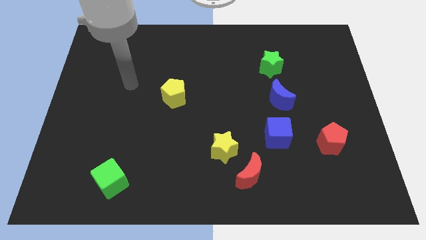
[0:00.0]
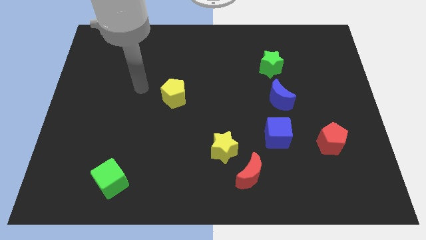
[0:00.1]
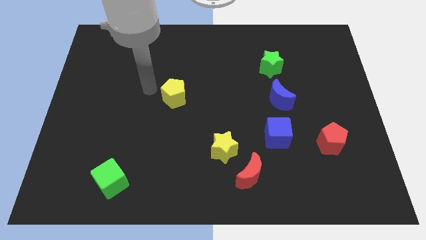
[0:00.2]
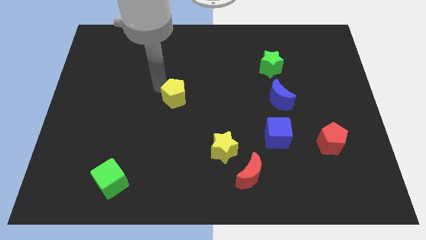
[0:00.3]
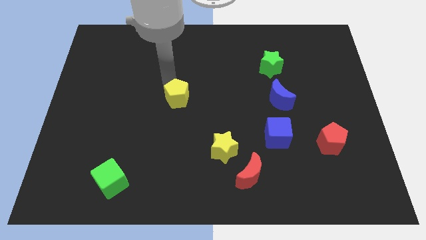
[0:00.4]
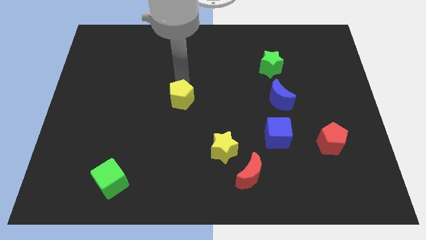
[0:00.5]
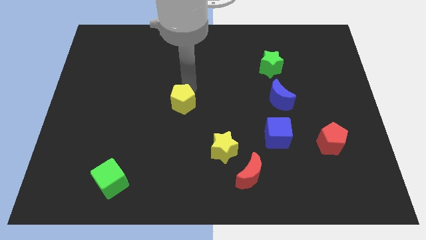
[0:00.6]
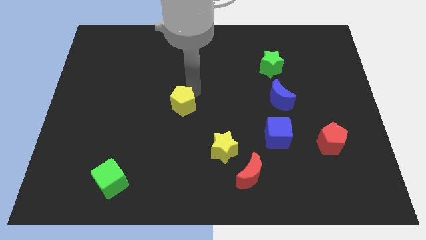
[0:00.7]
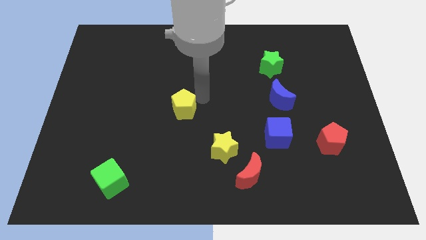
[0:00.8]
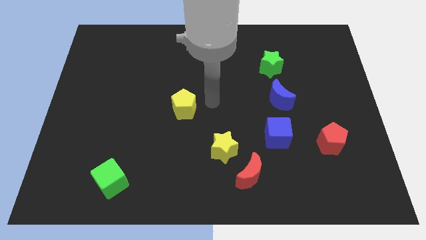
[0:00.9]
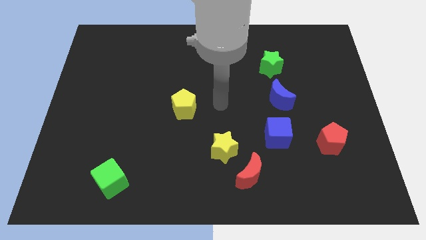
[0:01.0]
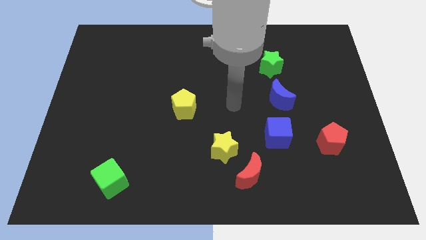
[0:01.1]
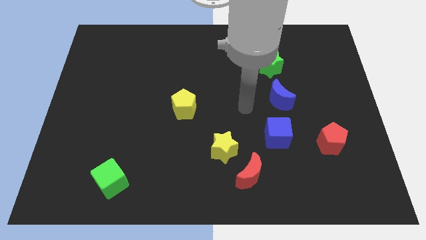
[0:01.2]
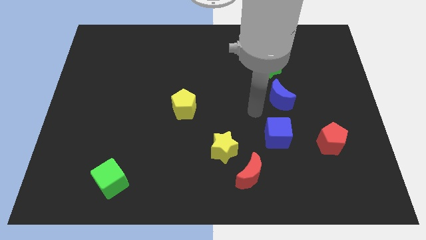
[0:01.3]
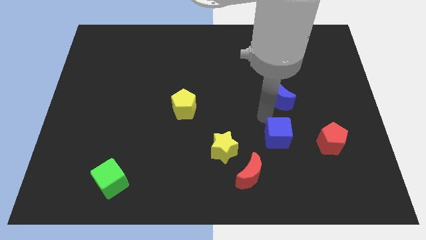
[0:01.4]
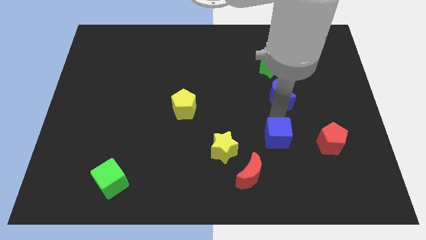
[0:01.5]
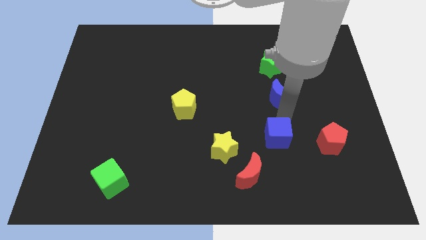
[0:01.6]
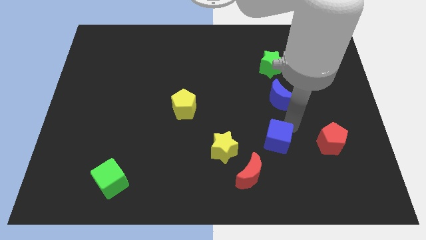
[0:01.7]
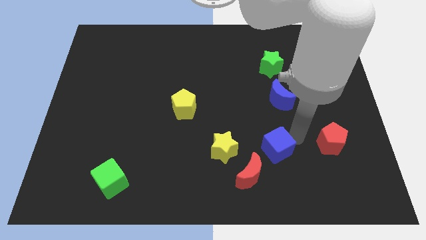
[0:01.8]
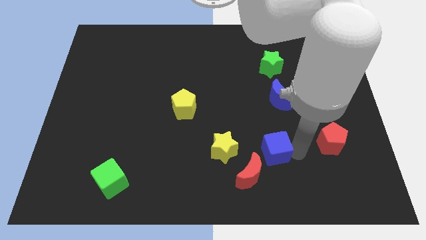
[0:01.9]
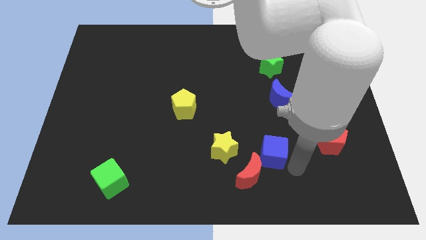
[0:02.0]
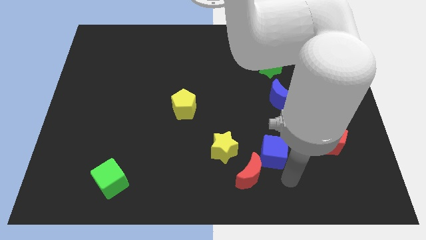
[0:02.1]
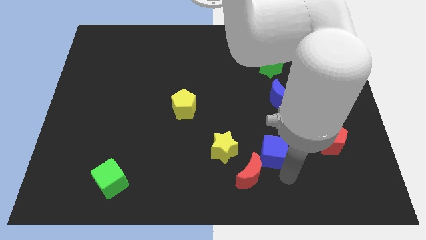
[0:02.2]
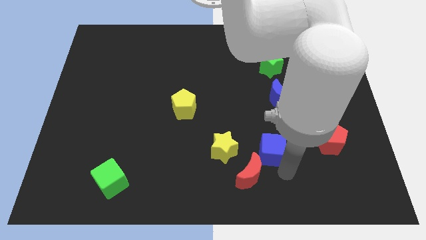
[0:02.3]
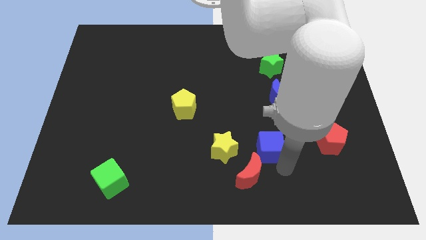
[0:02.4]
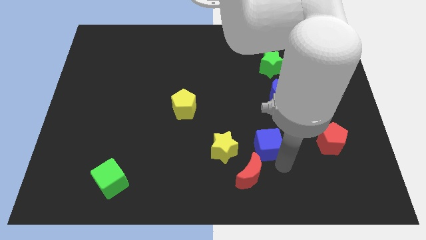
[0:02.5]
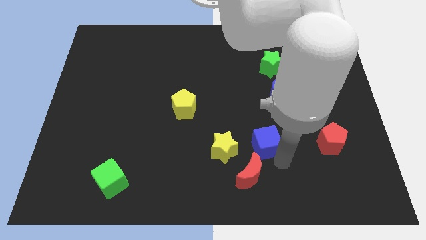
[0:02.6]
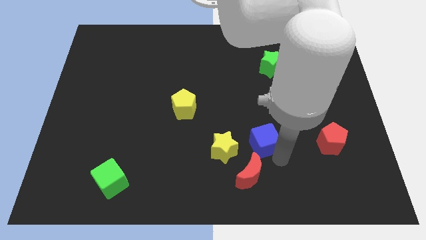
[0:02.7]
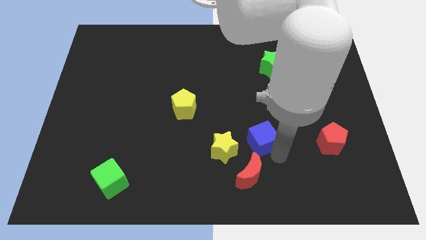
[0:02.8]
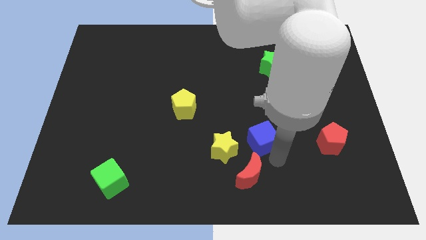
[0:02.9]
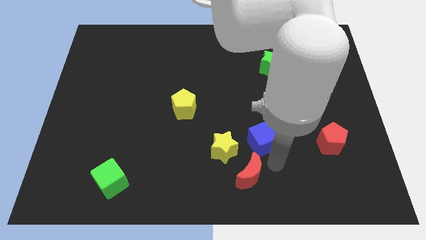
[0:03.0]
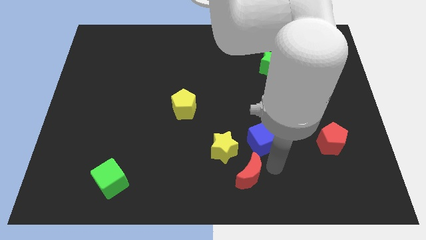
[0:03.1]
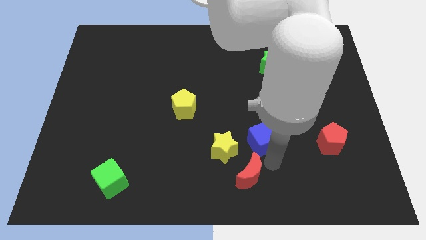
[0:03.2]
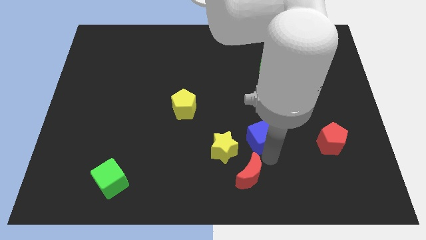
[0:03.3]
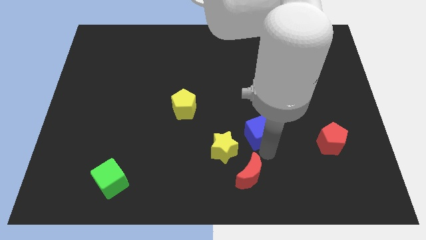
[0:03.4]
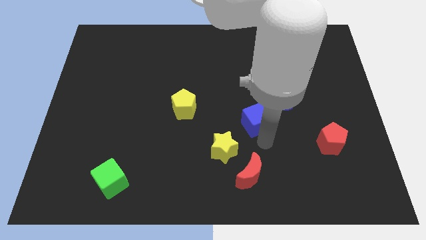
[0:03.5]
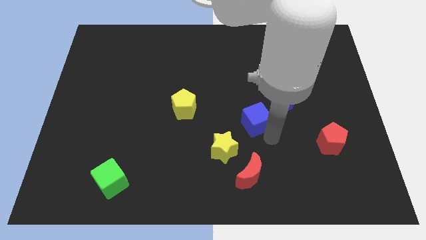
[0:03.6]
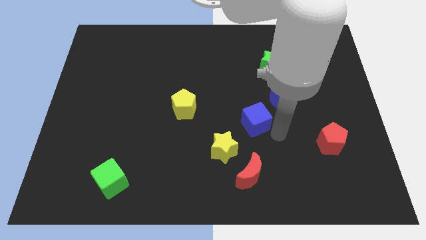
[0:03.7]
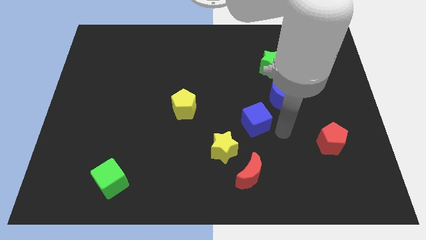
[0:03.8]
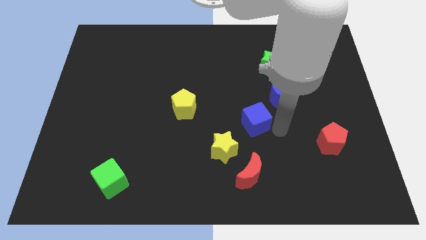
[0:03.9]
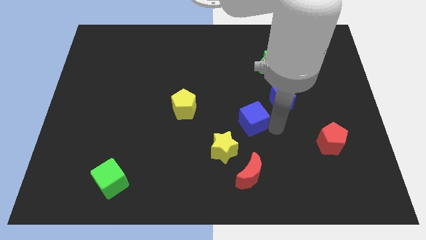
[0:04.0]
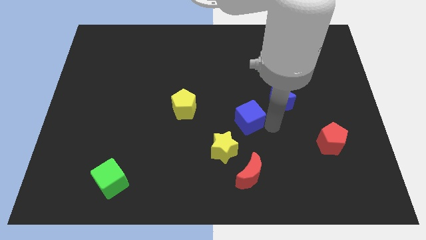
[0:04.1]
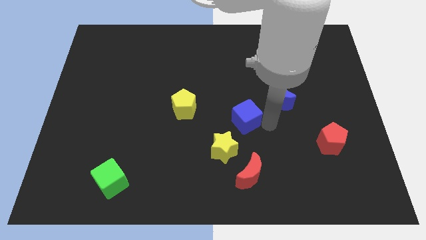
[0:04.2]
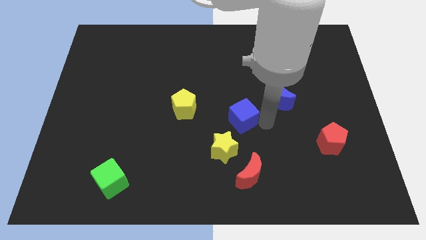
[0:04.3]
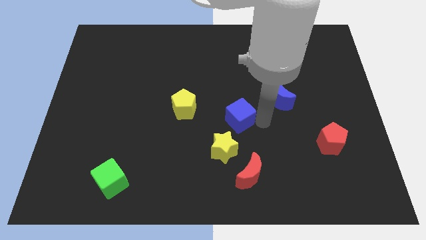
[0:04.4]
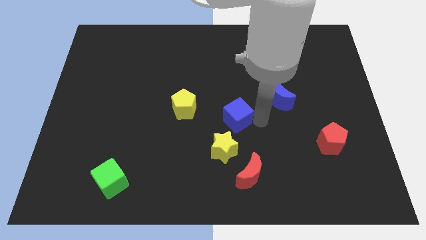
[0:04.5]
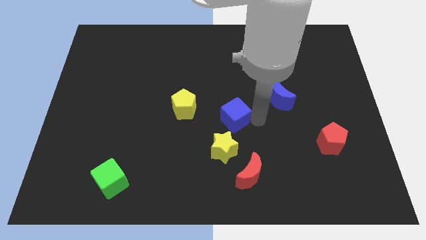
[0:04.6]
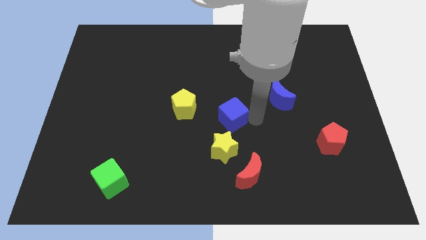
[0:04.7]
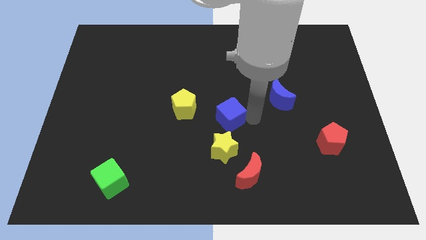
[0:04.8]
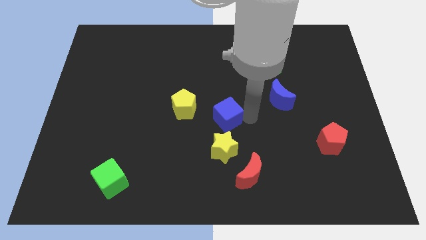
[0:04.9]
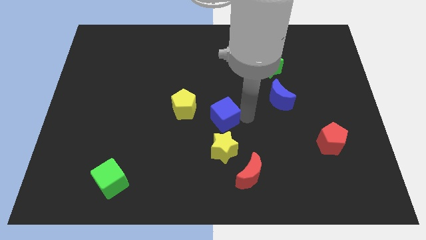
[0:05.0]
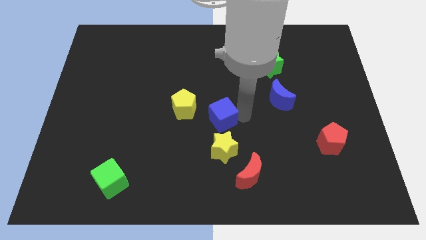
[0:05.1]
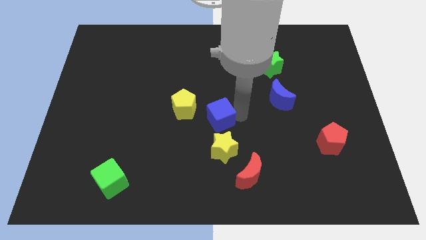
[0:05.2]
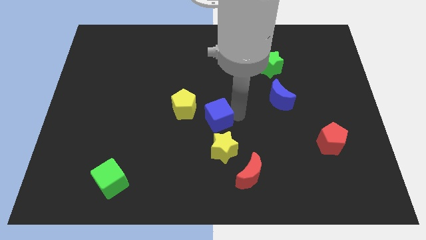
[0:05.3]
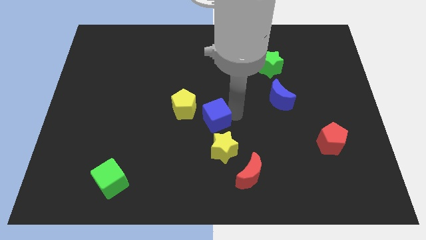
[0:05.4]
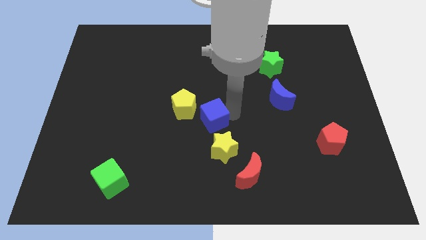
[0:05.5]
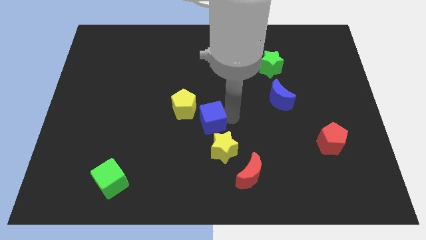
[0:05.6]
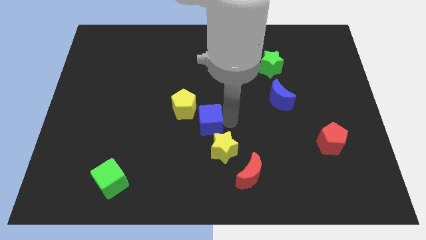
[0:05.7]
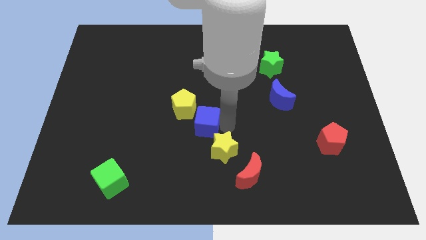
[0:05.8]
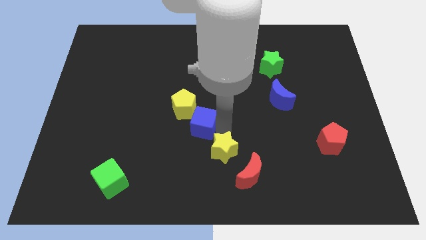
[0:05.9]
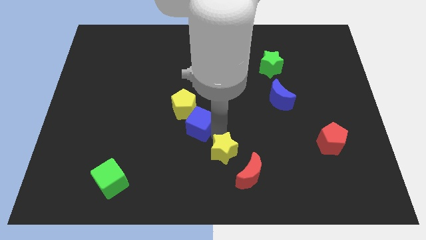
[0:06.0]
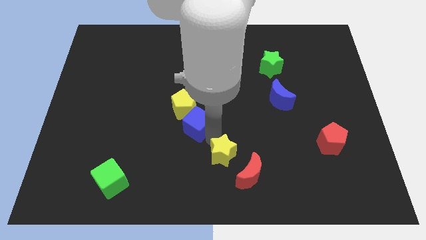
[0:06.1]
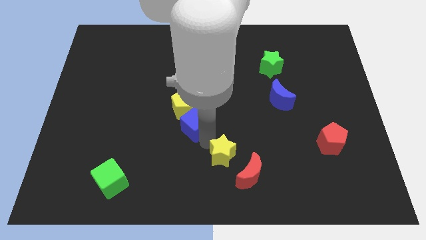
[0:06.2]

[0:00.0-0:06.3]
push the blue cube close to the yellow pentagon

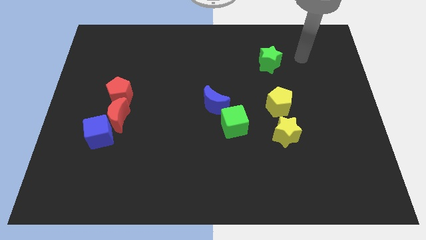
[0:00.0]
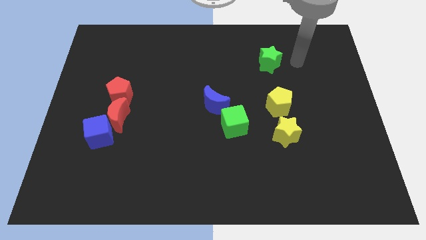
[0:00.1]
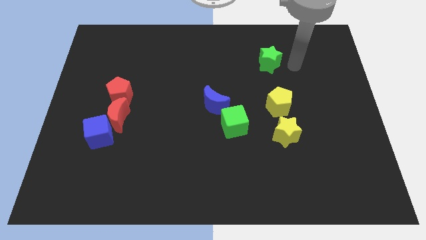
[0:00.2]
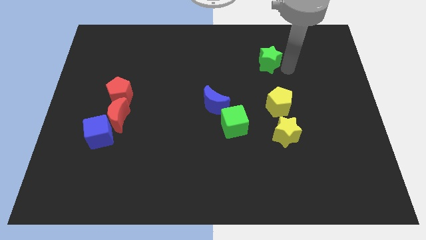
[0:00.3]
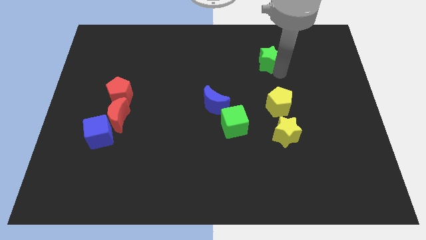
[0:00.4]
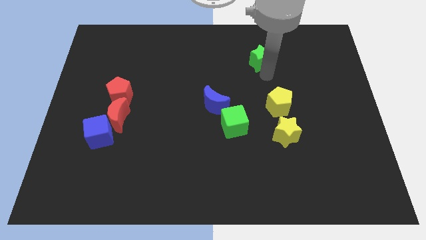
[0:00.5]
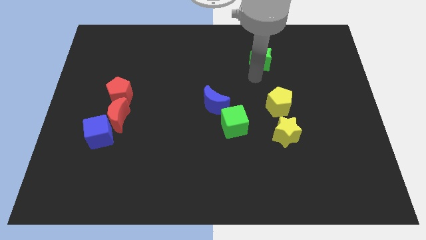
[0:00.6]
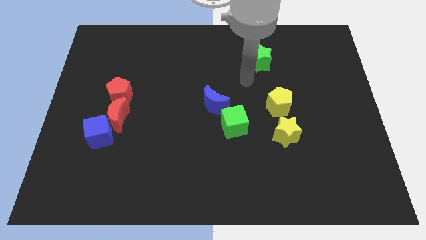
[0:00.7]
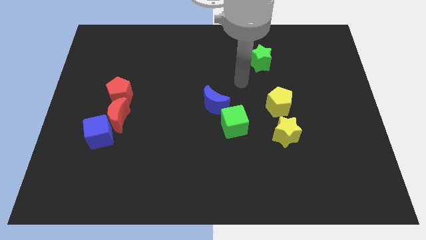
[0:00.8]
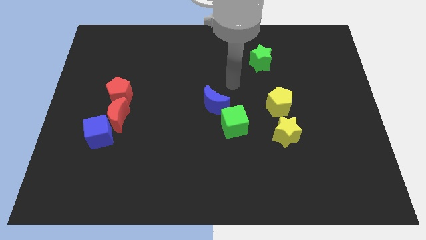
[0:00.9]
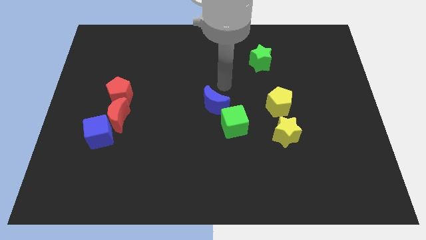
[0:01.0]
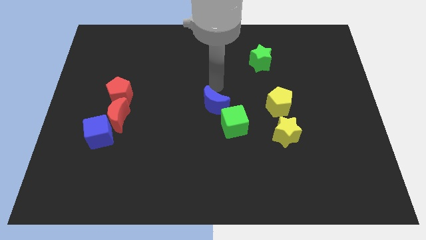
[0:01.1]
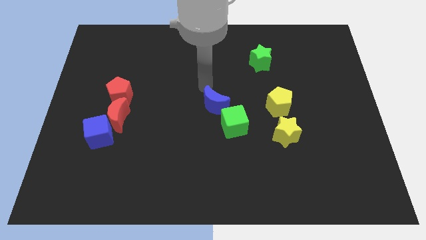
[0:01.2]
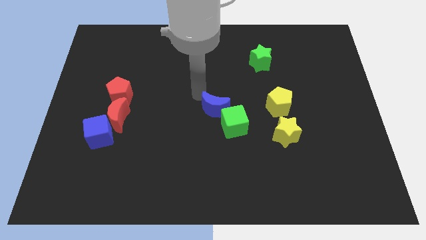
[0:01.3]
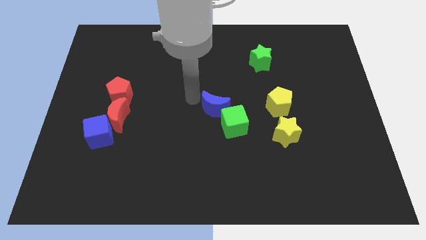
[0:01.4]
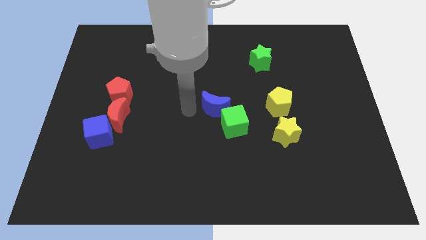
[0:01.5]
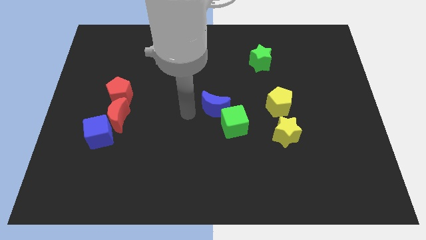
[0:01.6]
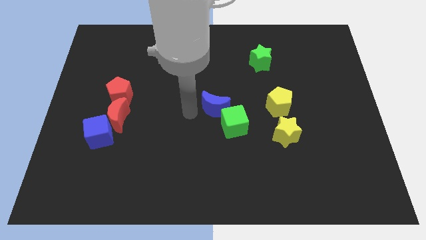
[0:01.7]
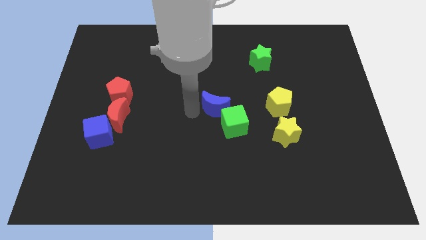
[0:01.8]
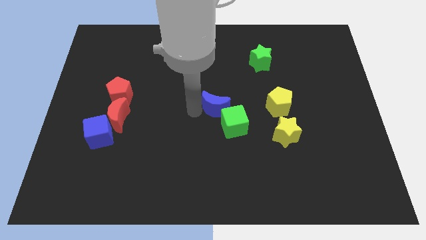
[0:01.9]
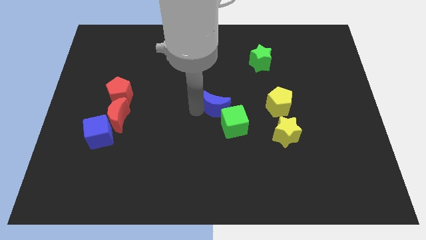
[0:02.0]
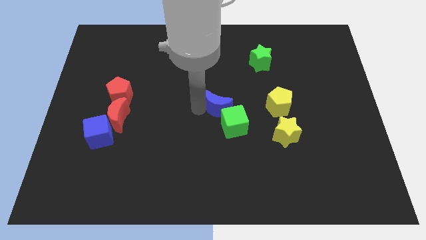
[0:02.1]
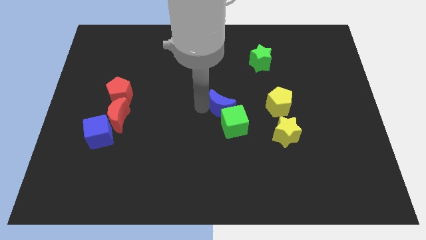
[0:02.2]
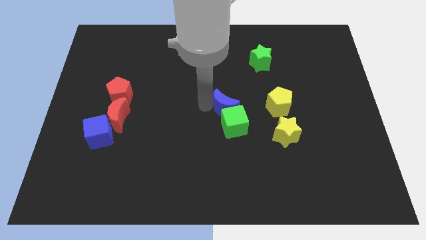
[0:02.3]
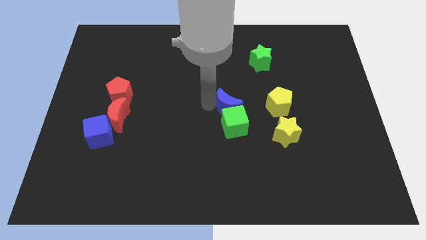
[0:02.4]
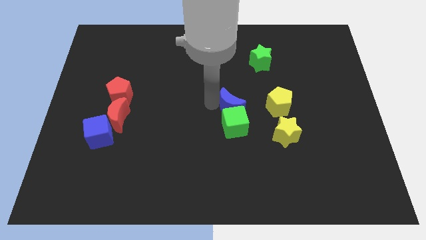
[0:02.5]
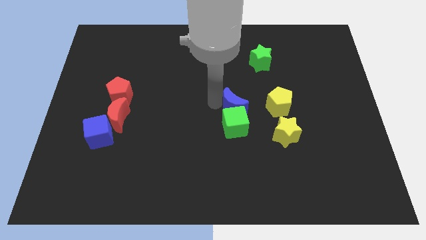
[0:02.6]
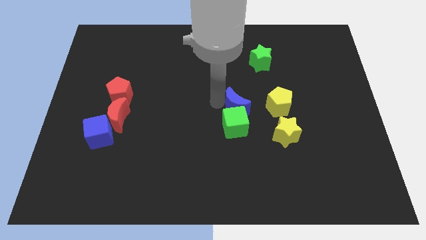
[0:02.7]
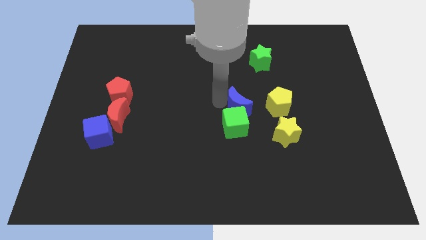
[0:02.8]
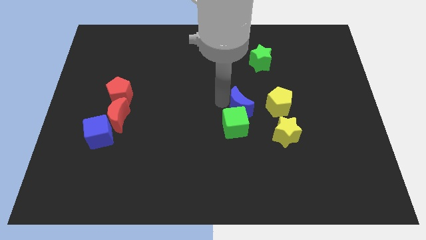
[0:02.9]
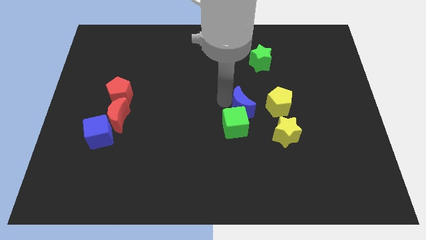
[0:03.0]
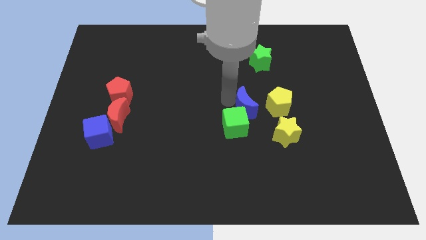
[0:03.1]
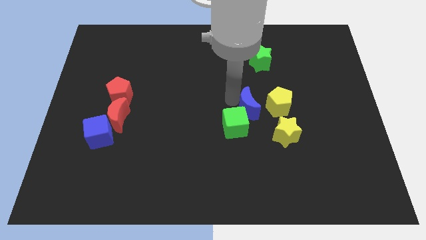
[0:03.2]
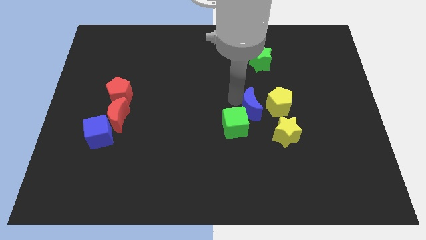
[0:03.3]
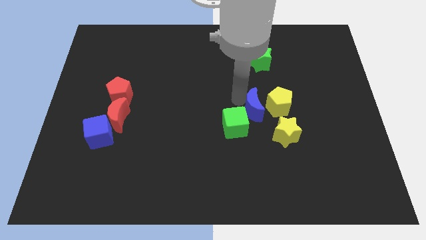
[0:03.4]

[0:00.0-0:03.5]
move the blue moon next to the yellow pentagon
